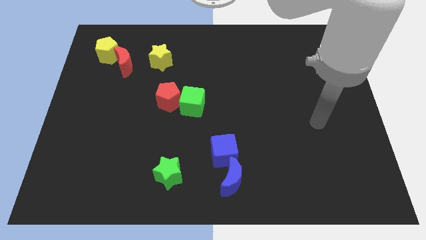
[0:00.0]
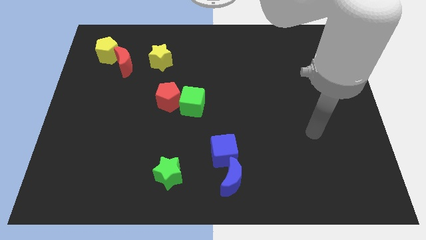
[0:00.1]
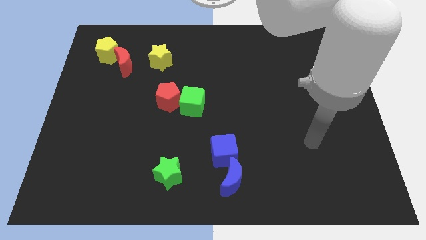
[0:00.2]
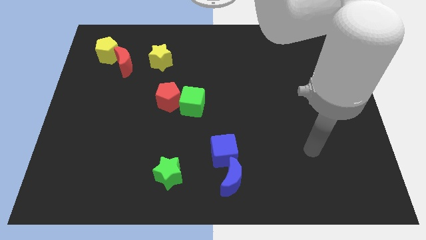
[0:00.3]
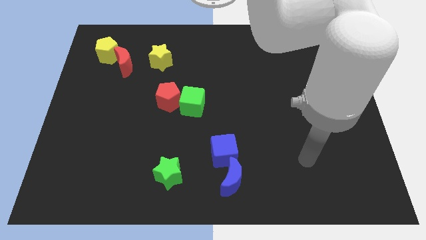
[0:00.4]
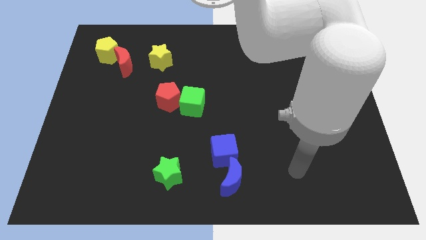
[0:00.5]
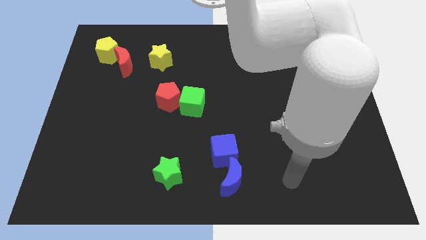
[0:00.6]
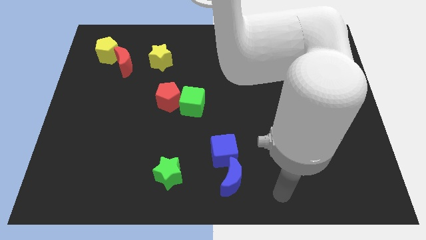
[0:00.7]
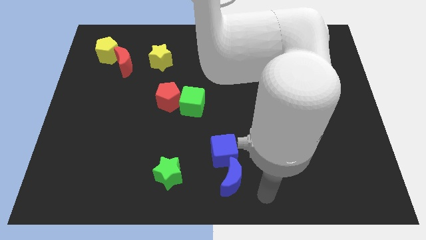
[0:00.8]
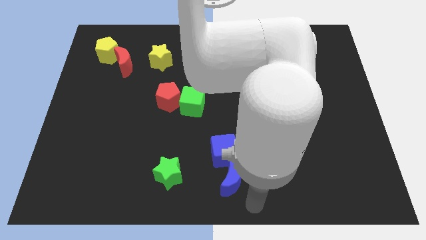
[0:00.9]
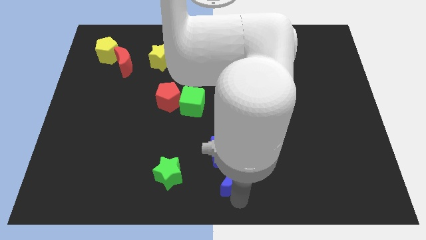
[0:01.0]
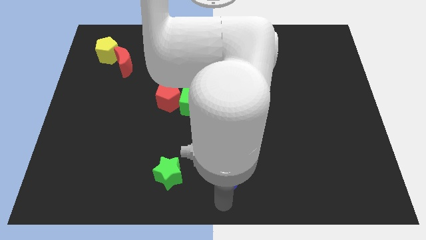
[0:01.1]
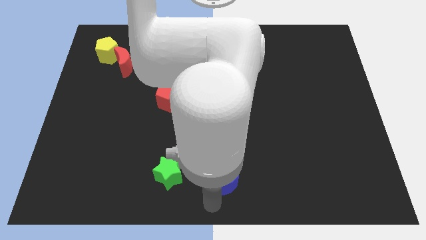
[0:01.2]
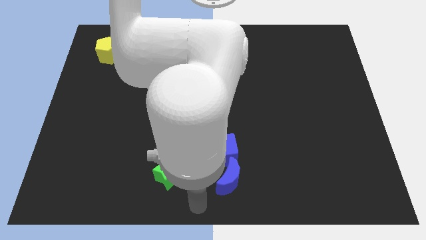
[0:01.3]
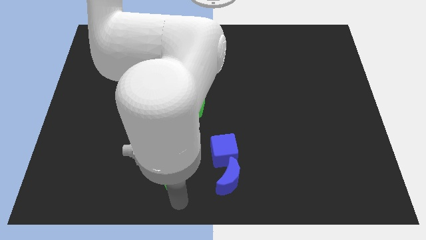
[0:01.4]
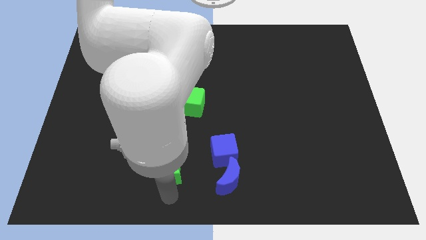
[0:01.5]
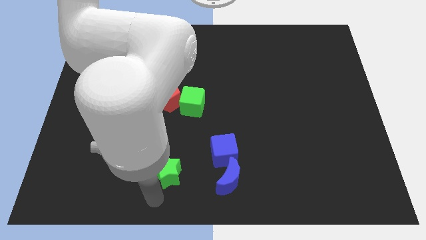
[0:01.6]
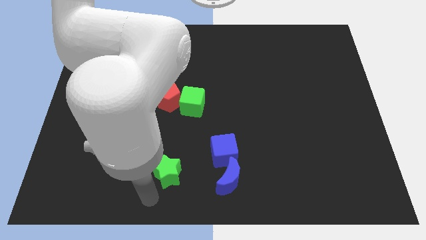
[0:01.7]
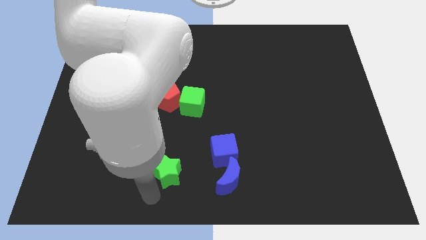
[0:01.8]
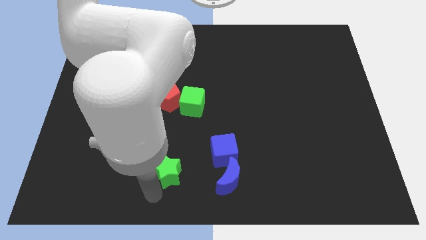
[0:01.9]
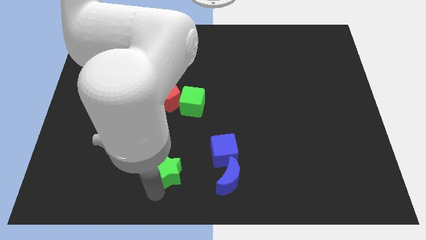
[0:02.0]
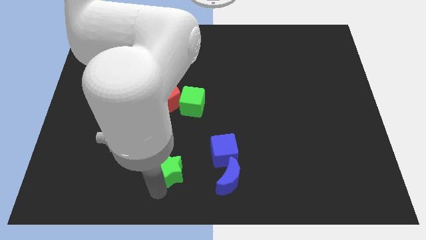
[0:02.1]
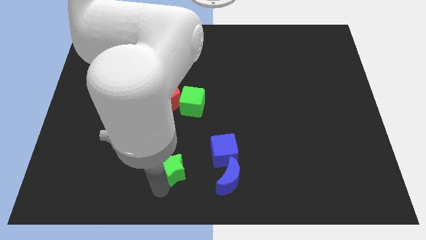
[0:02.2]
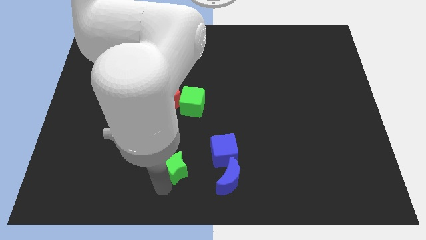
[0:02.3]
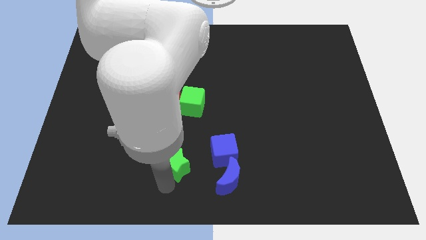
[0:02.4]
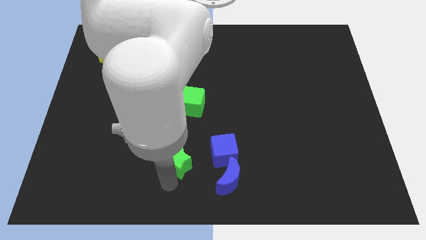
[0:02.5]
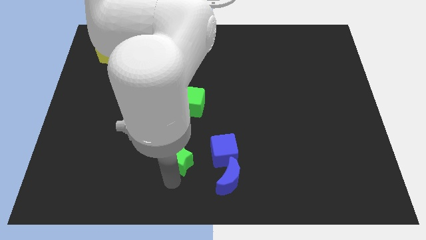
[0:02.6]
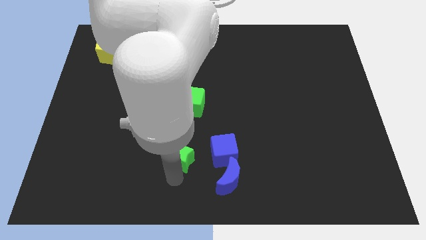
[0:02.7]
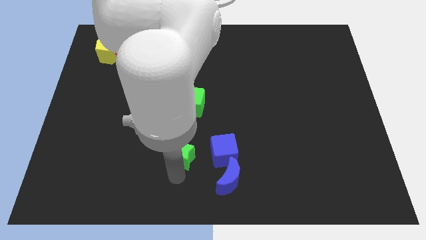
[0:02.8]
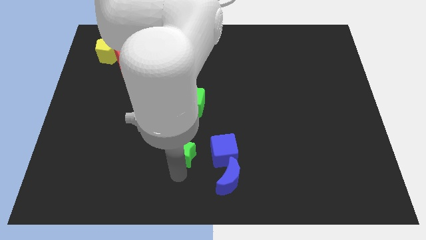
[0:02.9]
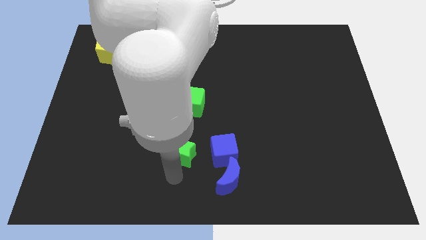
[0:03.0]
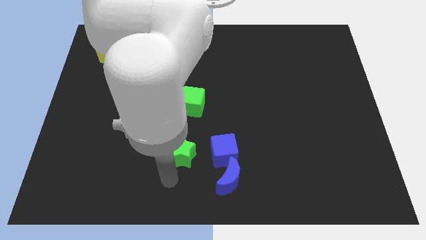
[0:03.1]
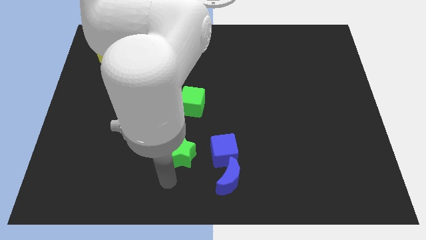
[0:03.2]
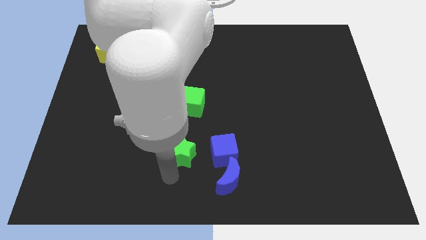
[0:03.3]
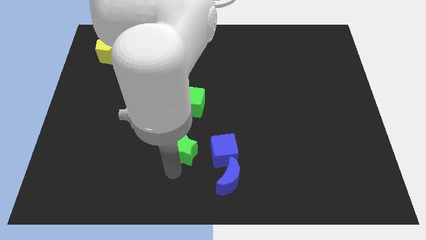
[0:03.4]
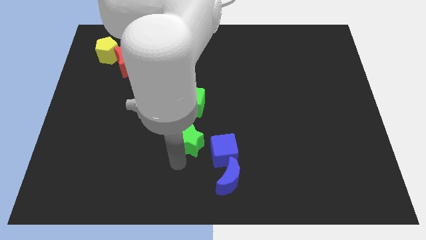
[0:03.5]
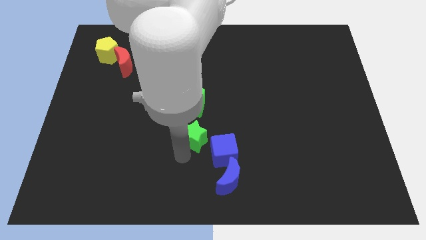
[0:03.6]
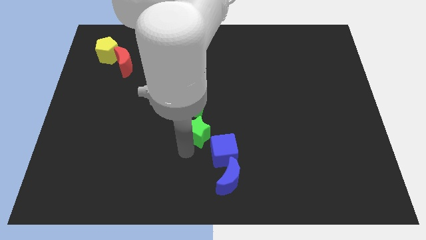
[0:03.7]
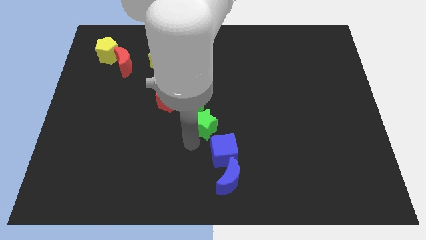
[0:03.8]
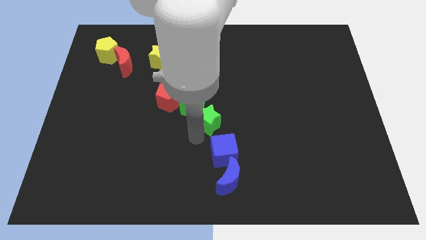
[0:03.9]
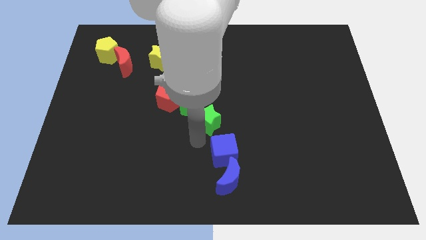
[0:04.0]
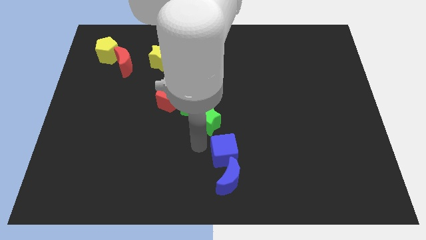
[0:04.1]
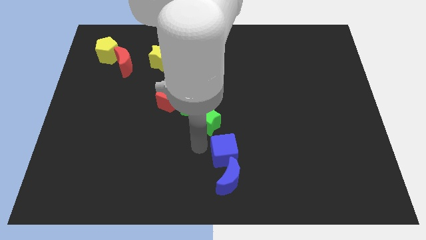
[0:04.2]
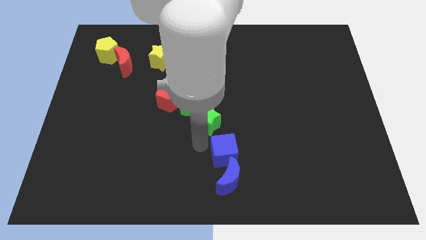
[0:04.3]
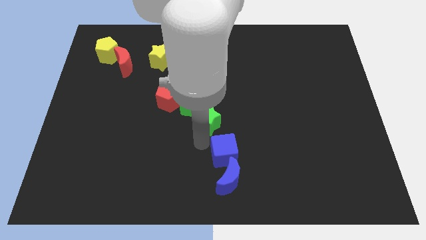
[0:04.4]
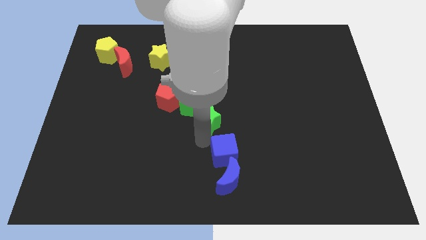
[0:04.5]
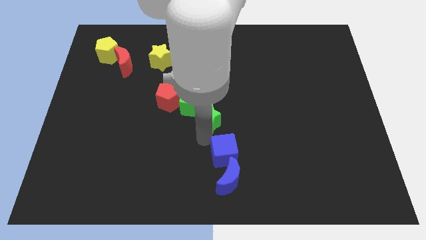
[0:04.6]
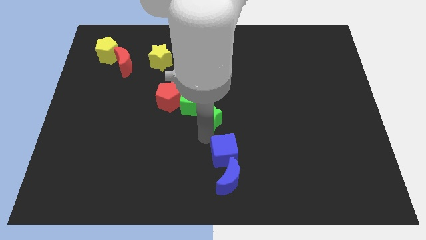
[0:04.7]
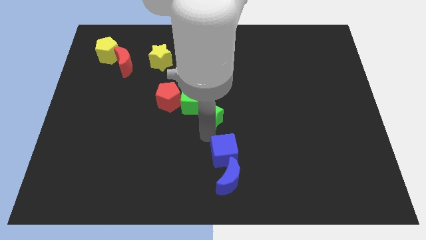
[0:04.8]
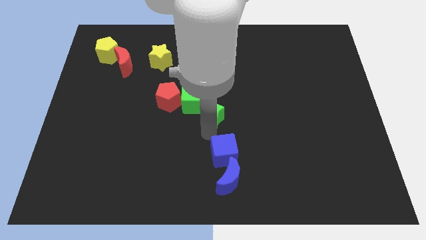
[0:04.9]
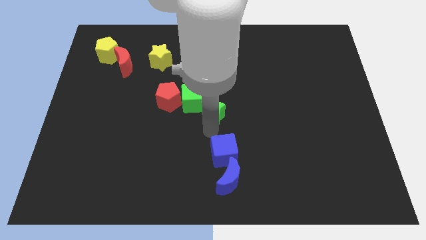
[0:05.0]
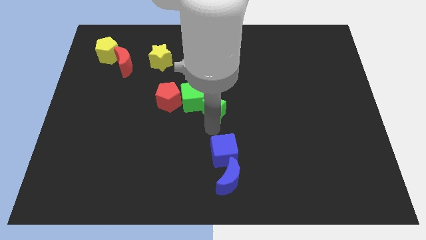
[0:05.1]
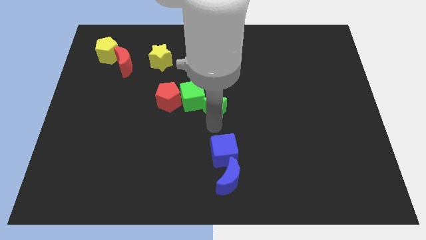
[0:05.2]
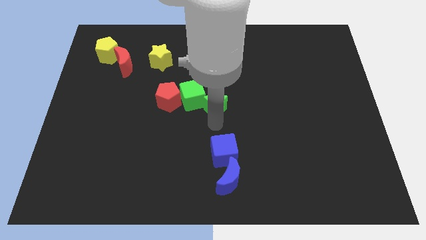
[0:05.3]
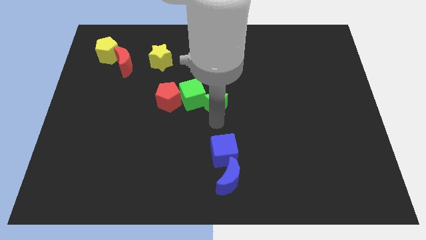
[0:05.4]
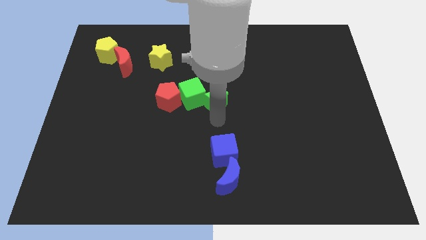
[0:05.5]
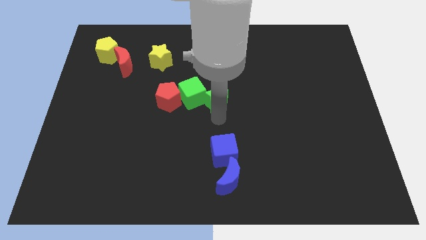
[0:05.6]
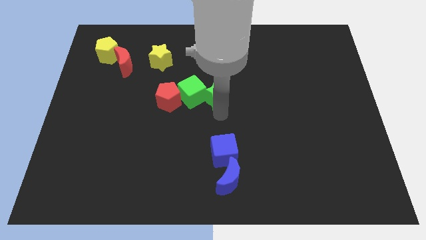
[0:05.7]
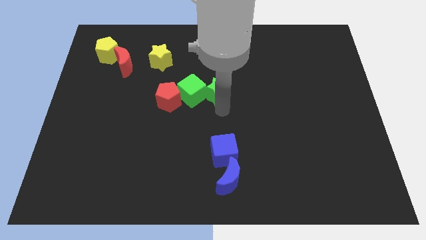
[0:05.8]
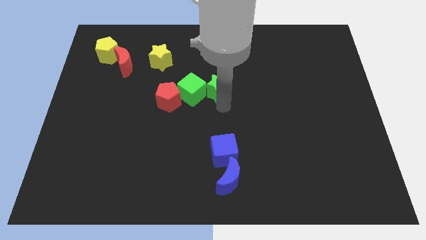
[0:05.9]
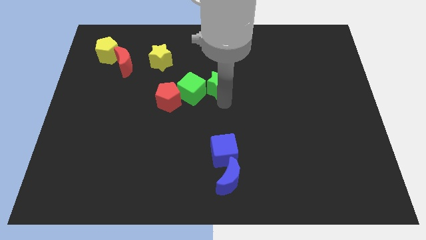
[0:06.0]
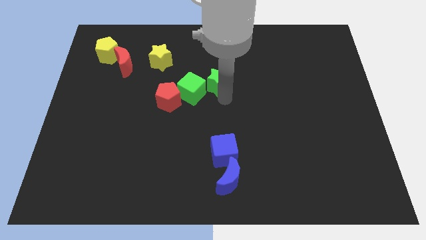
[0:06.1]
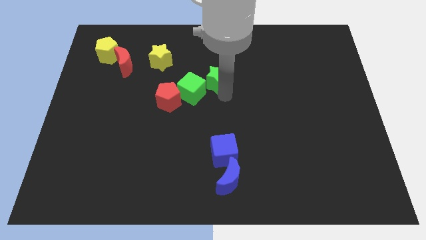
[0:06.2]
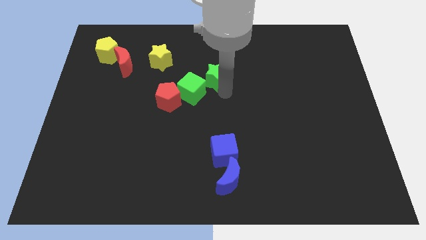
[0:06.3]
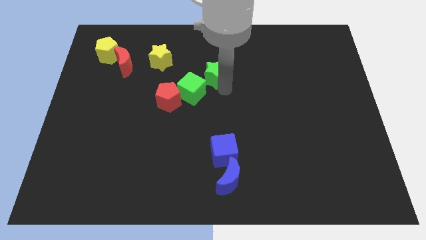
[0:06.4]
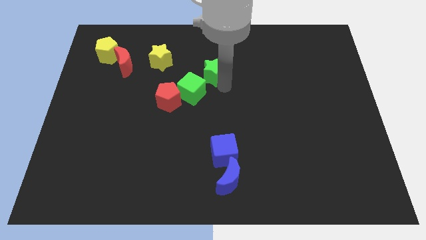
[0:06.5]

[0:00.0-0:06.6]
push the green star above the green cube

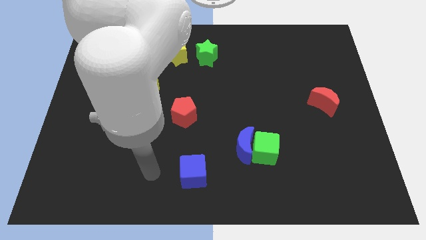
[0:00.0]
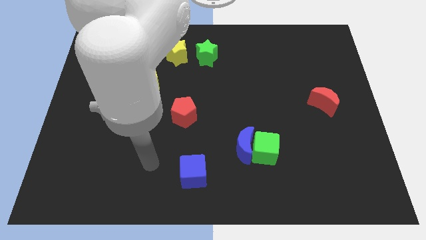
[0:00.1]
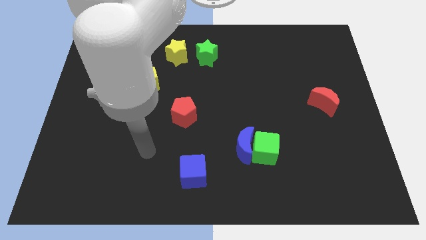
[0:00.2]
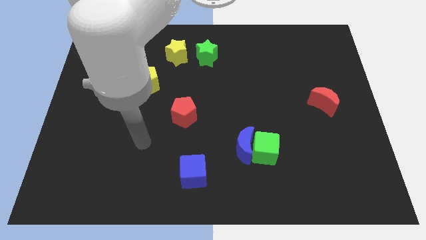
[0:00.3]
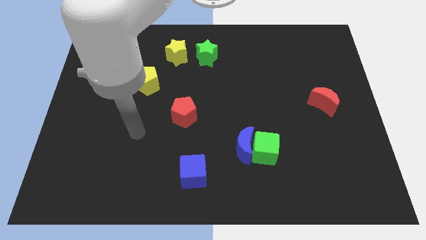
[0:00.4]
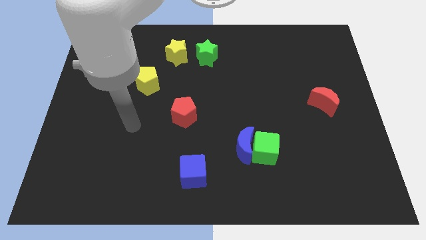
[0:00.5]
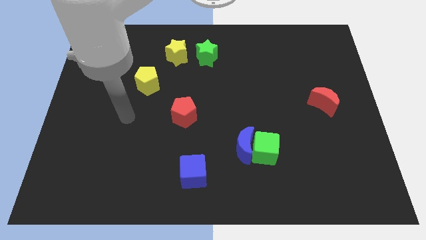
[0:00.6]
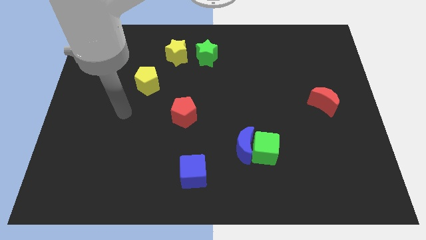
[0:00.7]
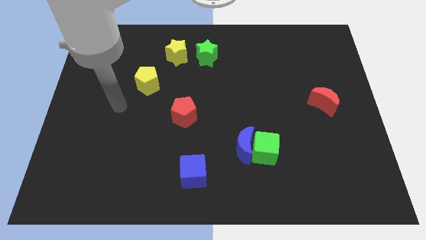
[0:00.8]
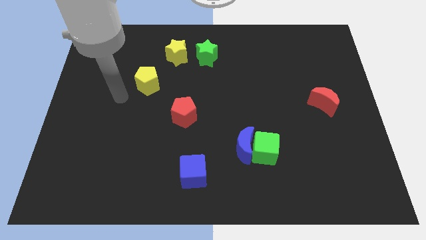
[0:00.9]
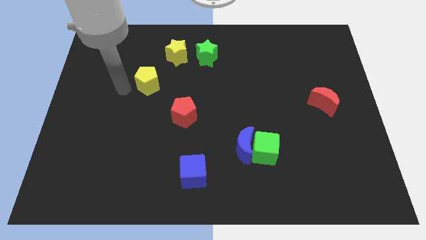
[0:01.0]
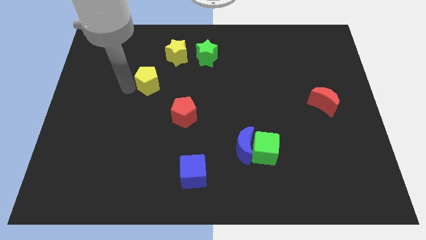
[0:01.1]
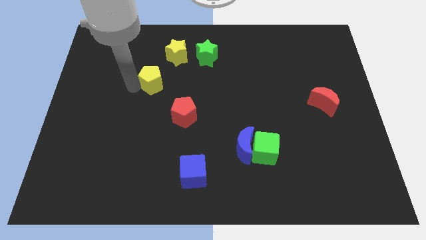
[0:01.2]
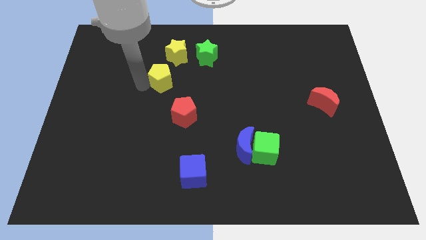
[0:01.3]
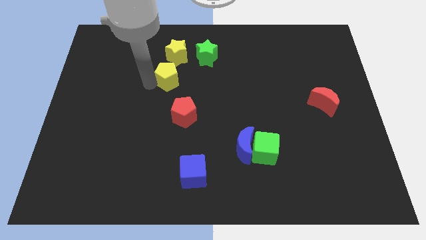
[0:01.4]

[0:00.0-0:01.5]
push the yellow pentagon to the bottom left of the green star
